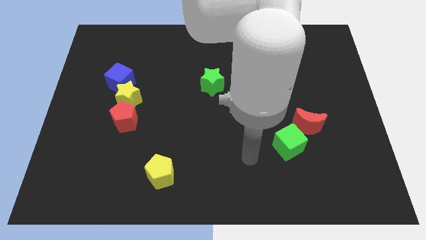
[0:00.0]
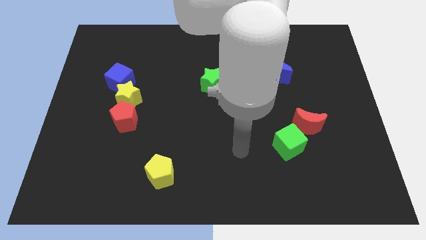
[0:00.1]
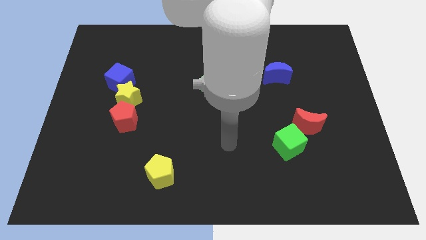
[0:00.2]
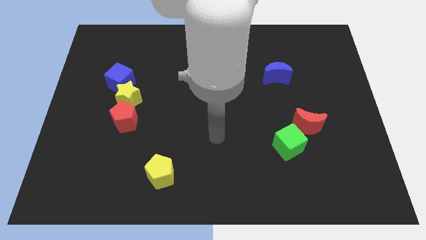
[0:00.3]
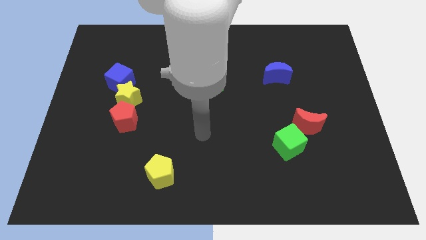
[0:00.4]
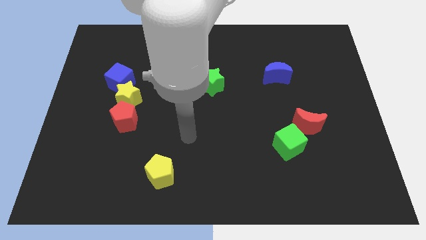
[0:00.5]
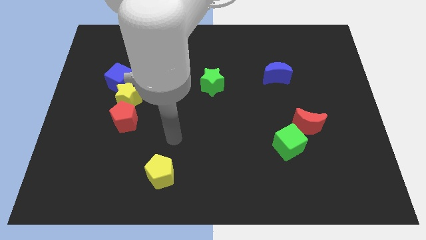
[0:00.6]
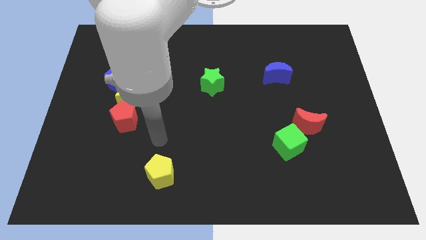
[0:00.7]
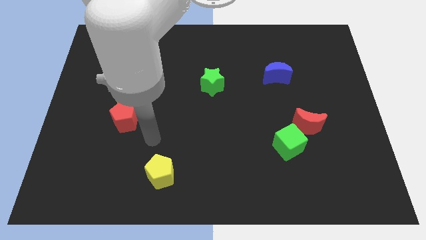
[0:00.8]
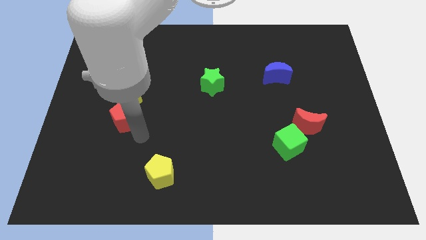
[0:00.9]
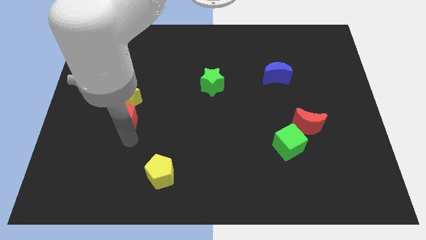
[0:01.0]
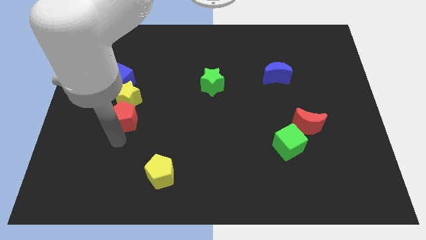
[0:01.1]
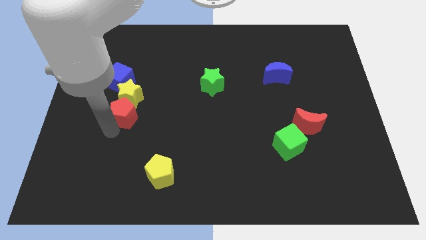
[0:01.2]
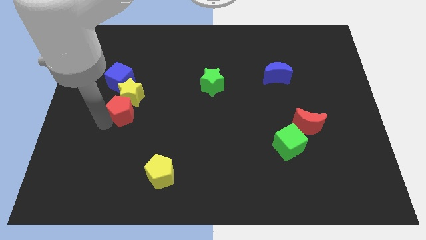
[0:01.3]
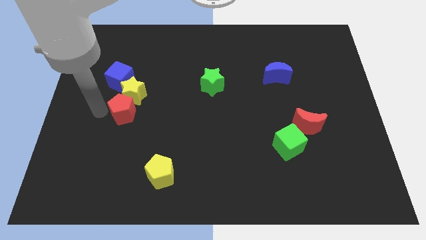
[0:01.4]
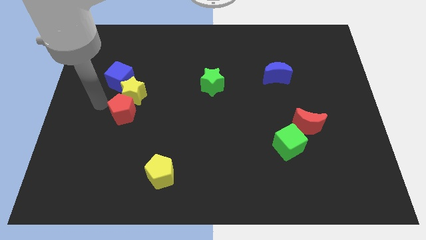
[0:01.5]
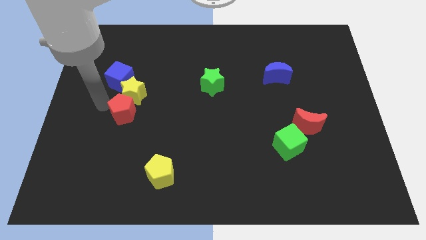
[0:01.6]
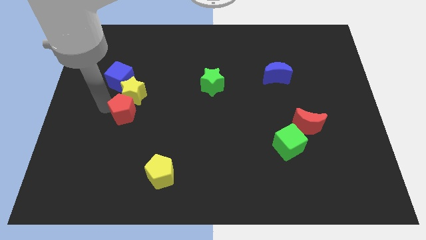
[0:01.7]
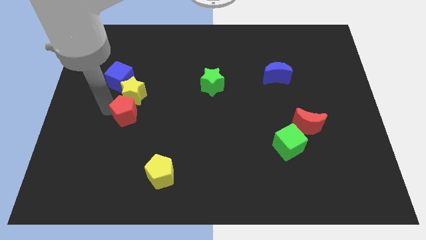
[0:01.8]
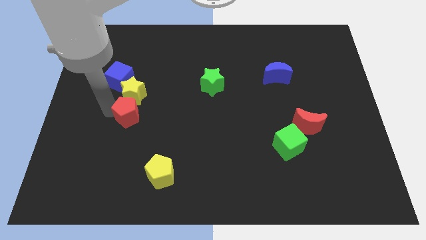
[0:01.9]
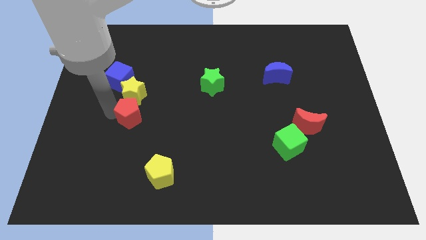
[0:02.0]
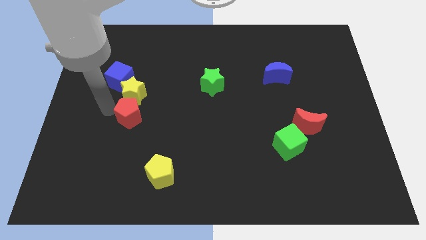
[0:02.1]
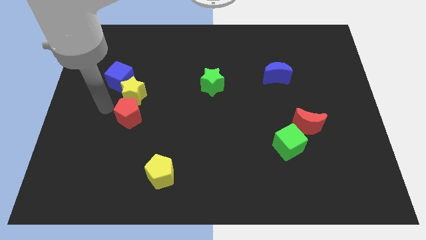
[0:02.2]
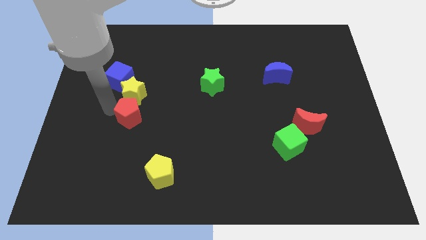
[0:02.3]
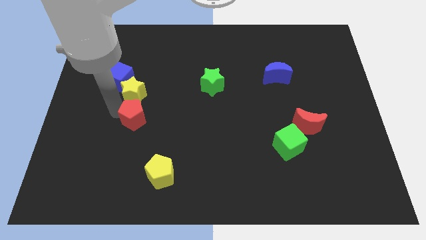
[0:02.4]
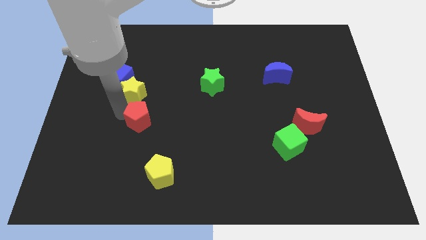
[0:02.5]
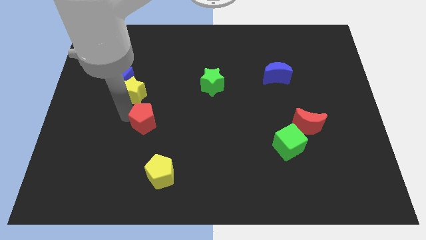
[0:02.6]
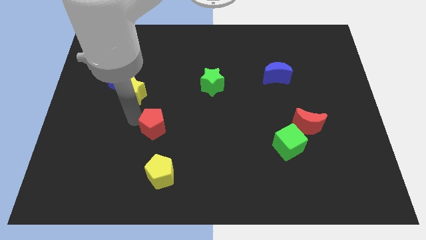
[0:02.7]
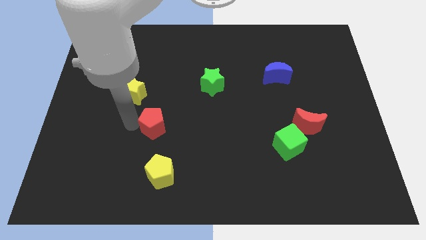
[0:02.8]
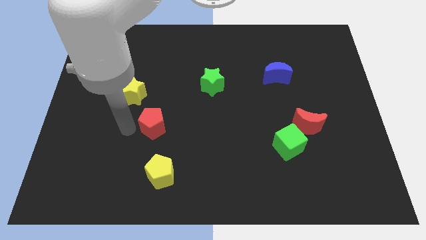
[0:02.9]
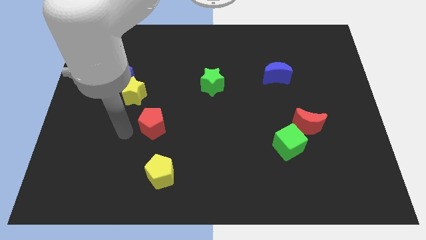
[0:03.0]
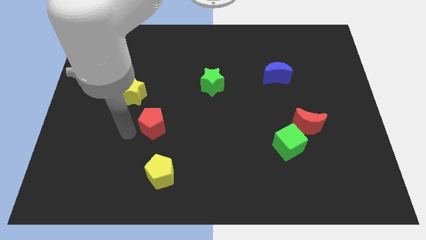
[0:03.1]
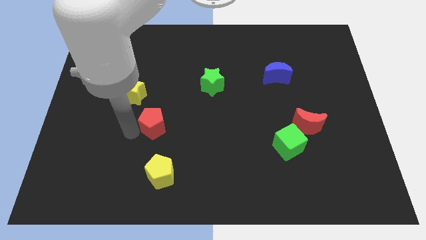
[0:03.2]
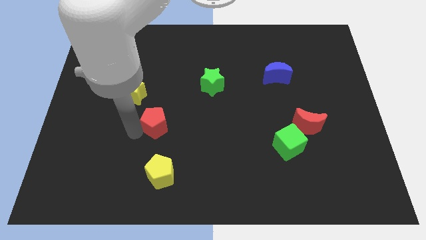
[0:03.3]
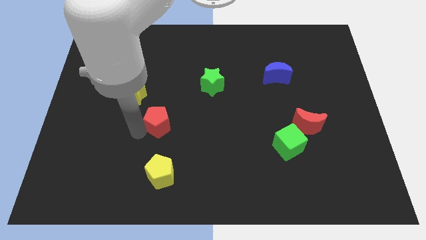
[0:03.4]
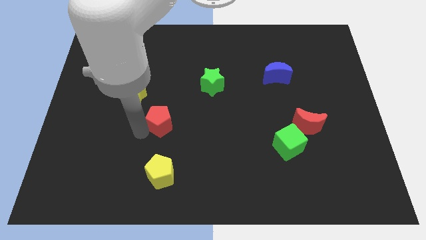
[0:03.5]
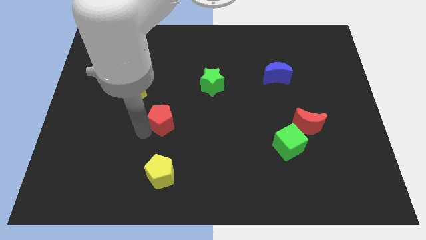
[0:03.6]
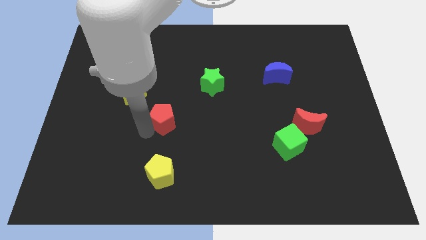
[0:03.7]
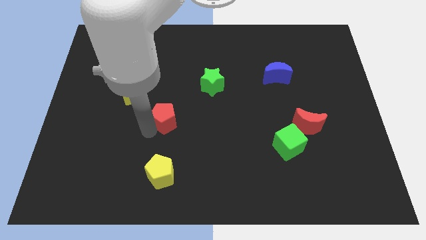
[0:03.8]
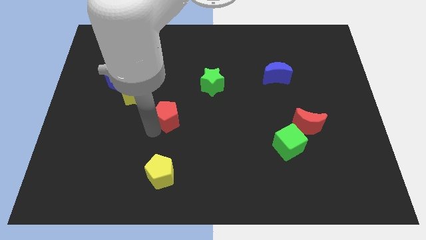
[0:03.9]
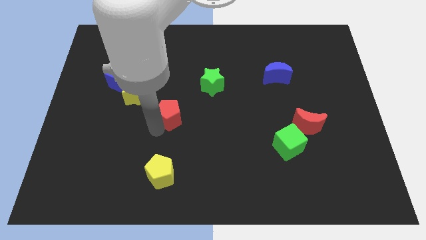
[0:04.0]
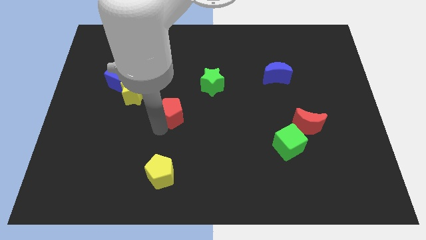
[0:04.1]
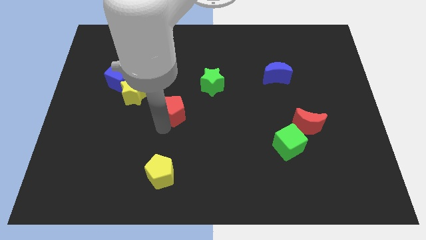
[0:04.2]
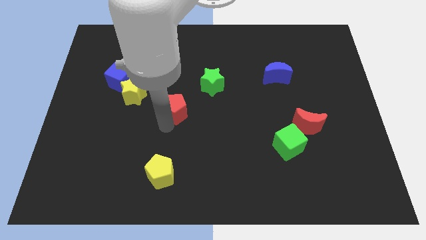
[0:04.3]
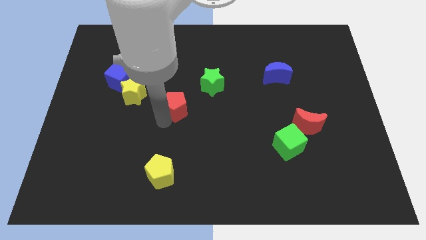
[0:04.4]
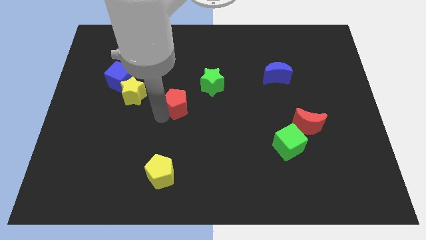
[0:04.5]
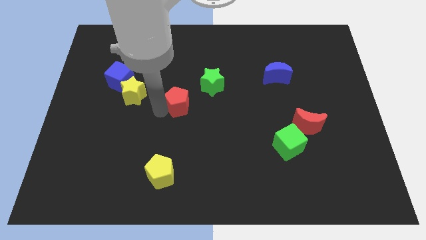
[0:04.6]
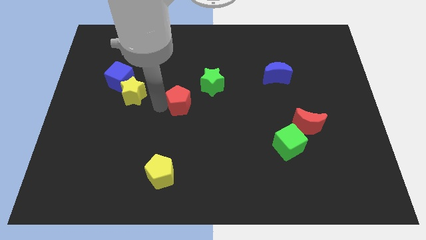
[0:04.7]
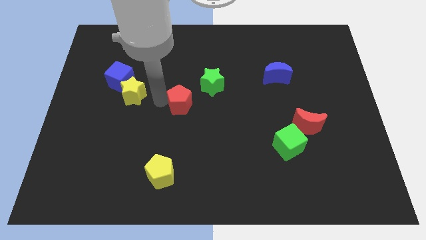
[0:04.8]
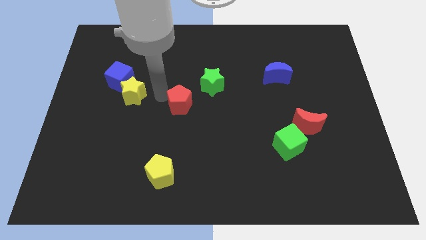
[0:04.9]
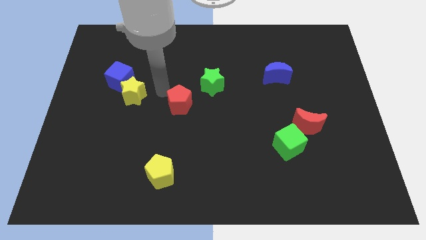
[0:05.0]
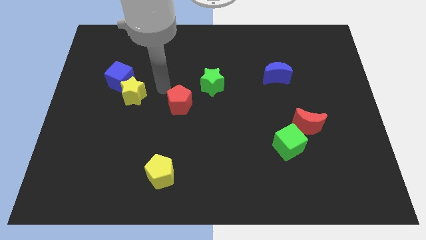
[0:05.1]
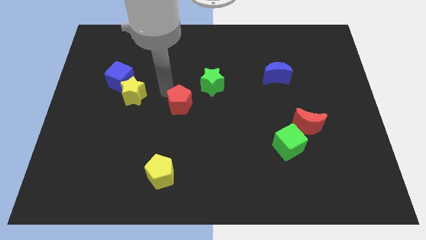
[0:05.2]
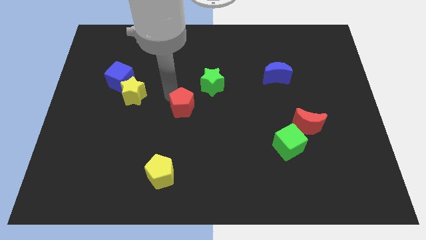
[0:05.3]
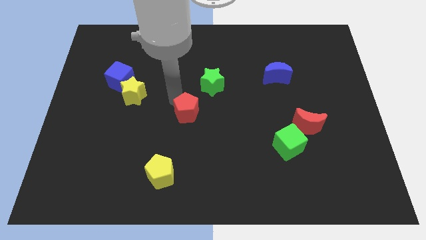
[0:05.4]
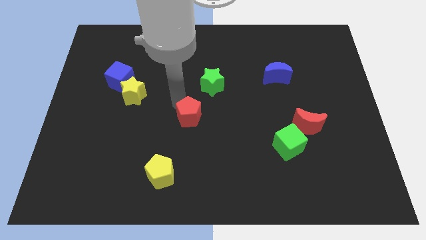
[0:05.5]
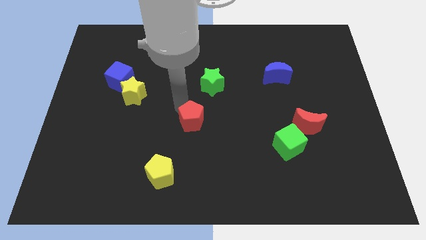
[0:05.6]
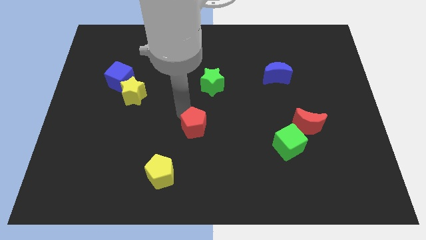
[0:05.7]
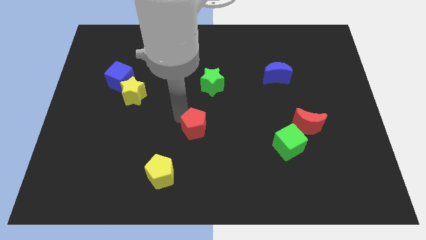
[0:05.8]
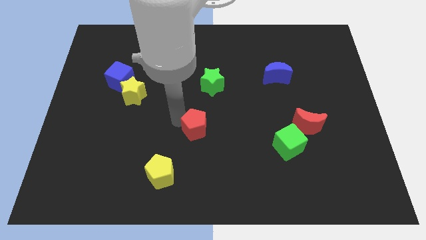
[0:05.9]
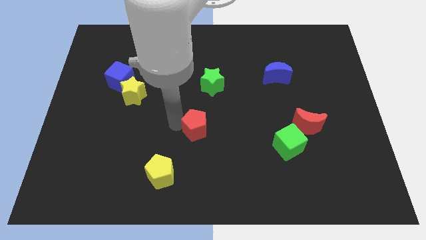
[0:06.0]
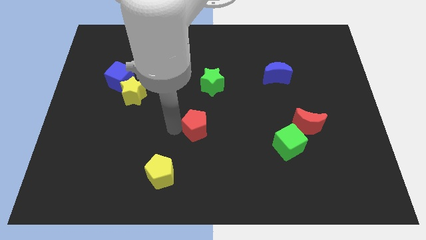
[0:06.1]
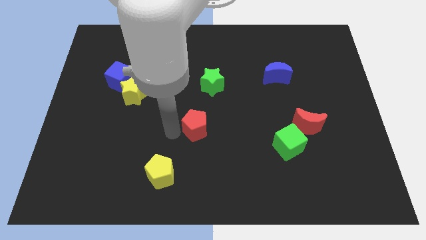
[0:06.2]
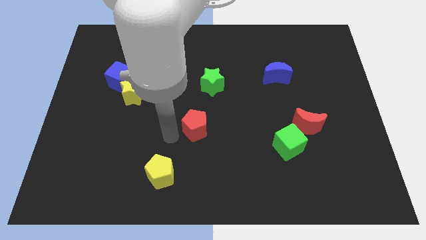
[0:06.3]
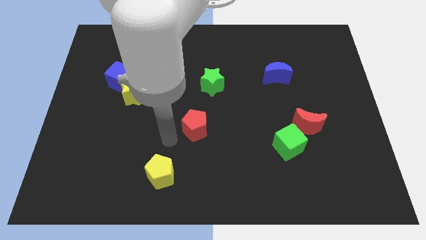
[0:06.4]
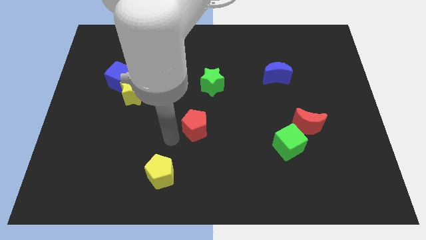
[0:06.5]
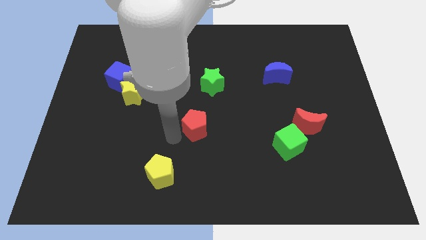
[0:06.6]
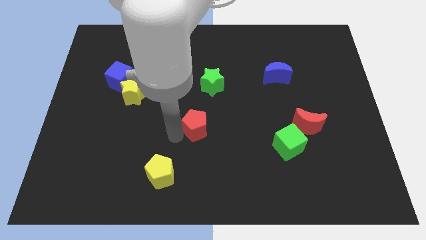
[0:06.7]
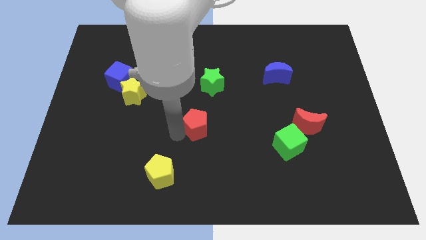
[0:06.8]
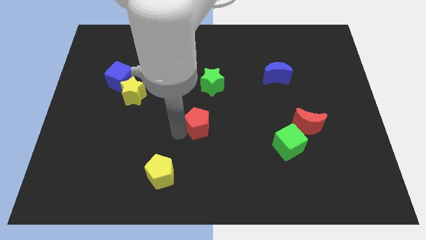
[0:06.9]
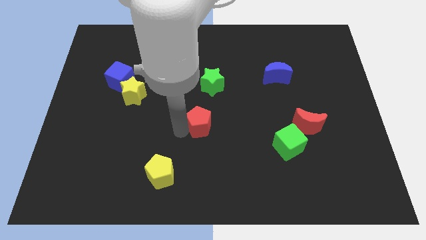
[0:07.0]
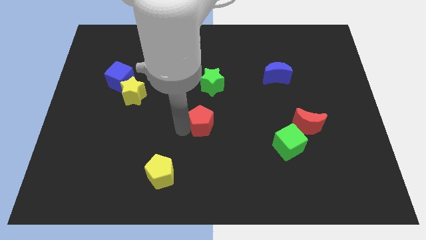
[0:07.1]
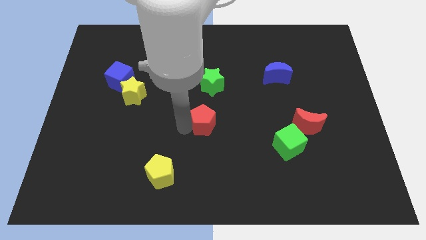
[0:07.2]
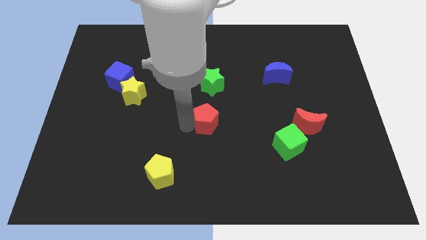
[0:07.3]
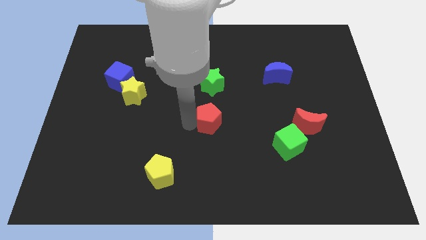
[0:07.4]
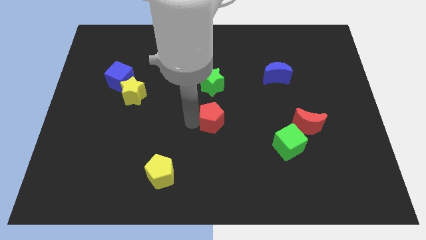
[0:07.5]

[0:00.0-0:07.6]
move the red pentagon to the right

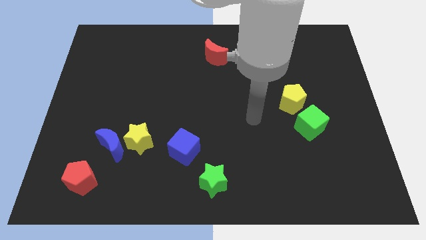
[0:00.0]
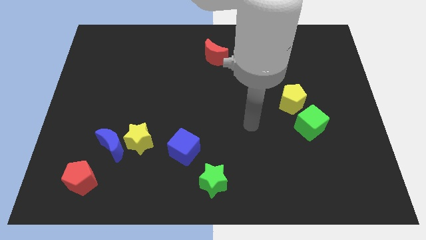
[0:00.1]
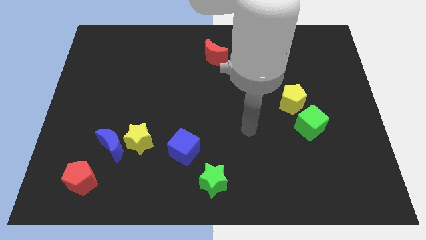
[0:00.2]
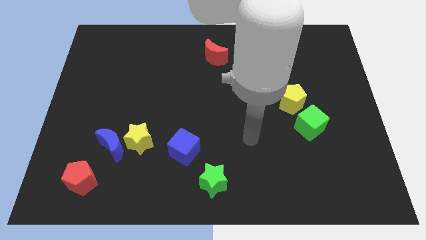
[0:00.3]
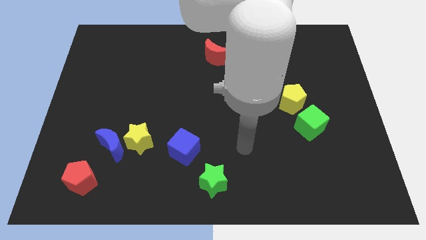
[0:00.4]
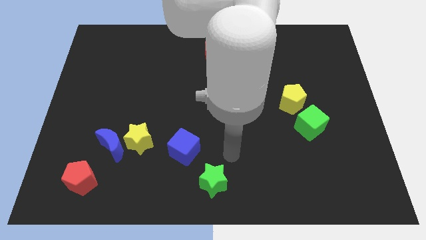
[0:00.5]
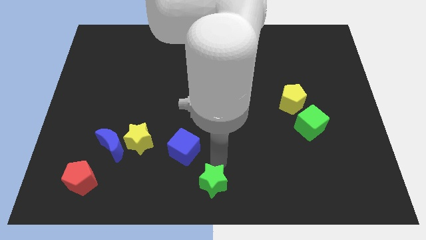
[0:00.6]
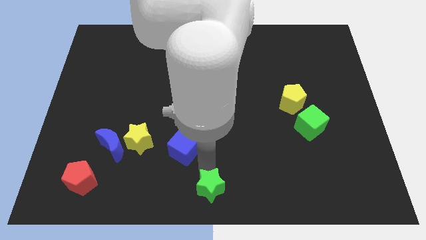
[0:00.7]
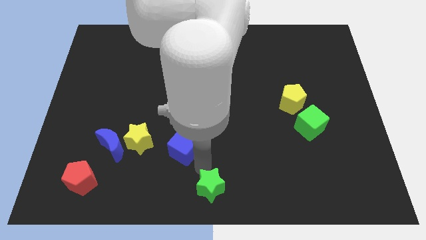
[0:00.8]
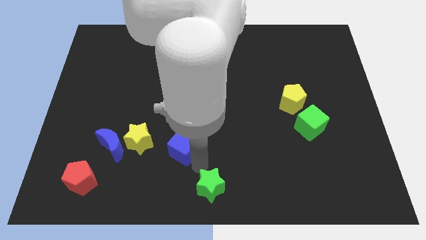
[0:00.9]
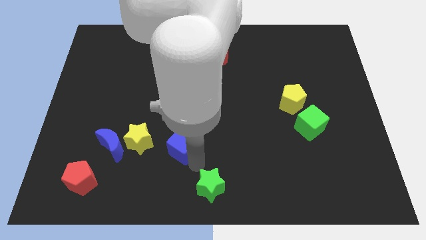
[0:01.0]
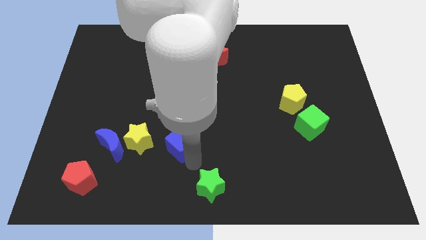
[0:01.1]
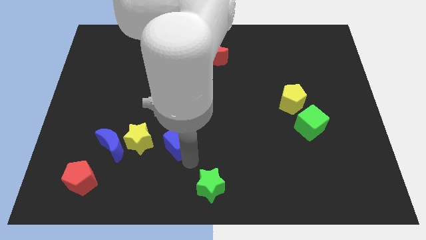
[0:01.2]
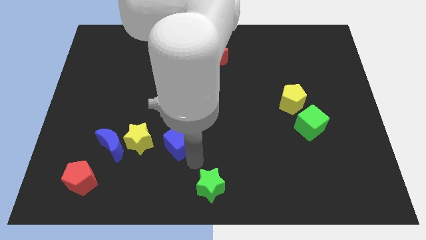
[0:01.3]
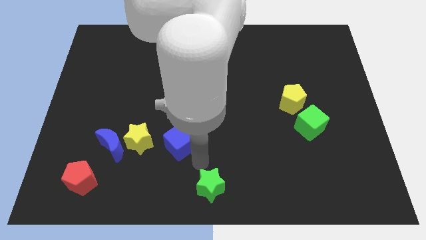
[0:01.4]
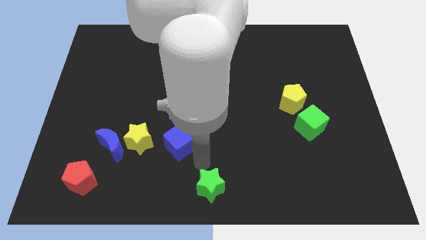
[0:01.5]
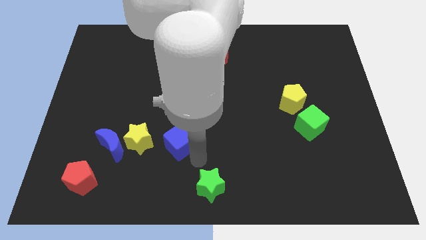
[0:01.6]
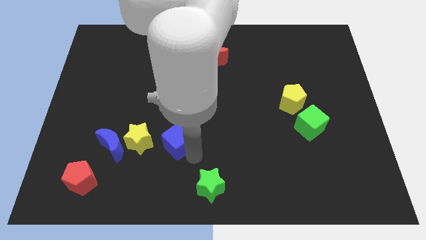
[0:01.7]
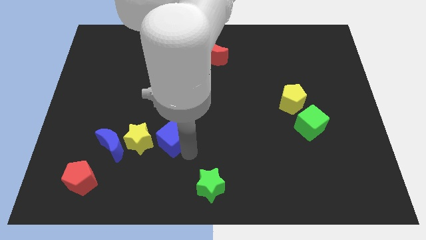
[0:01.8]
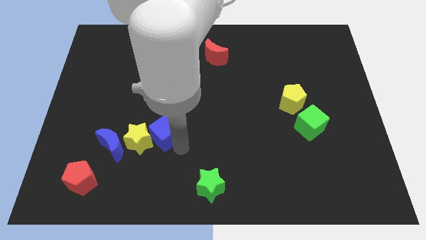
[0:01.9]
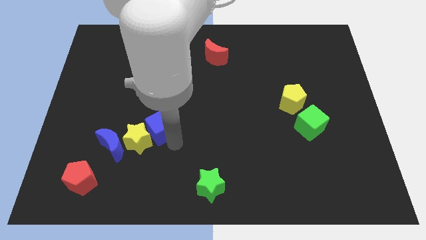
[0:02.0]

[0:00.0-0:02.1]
slide the blue cube upwards and then left a little
